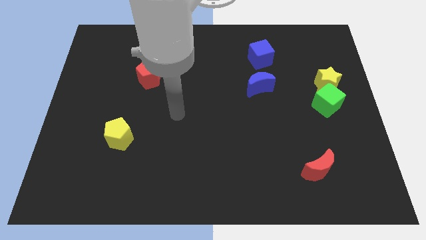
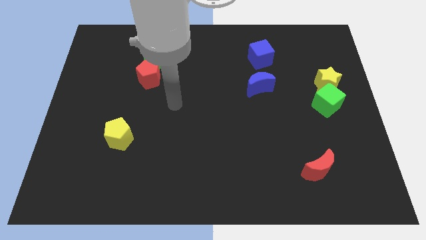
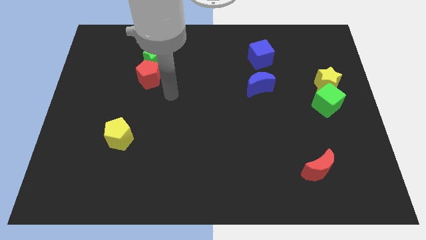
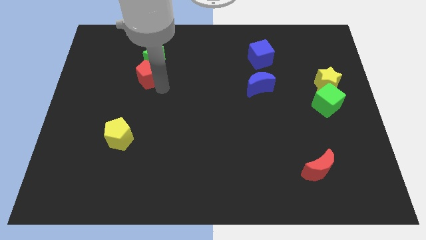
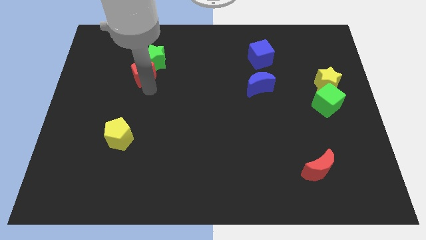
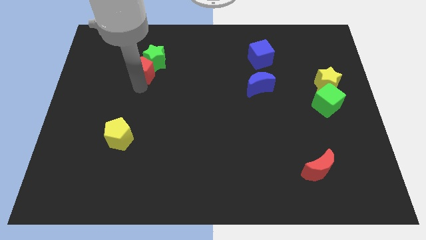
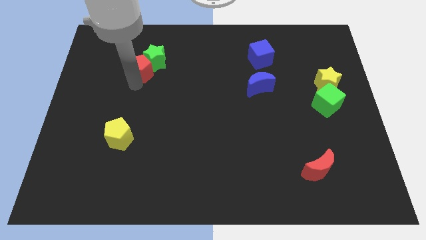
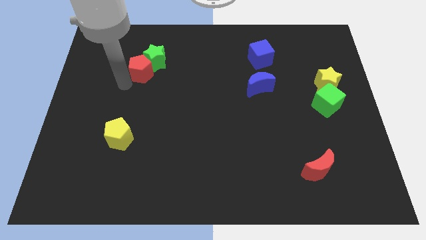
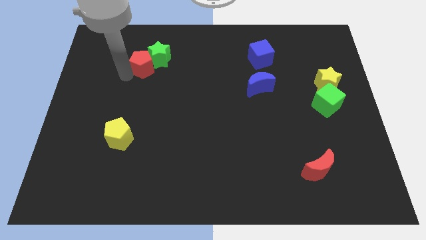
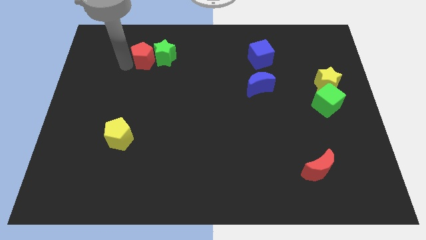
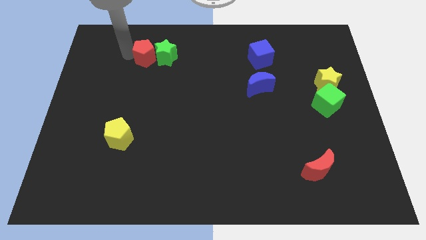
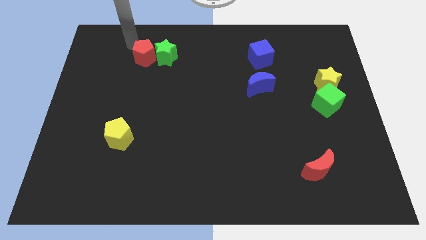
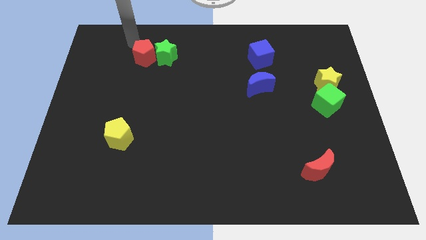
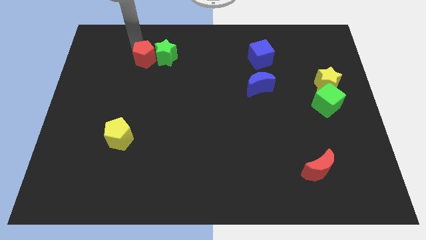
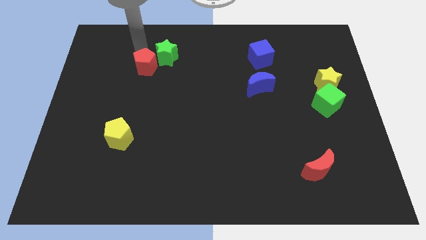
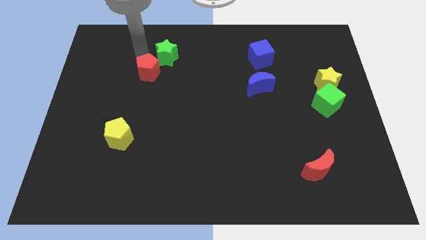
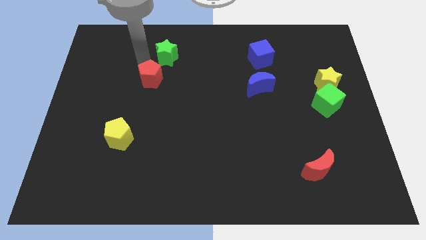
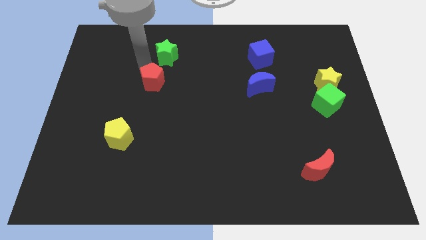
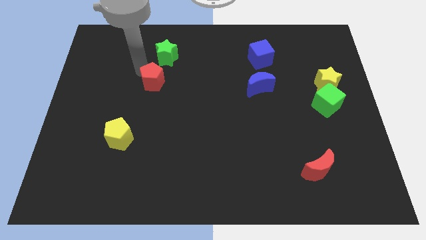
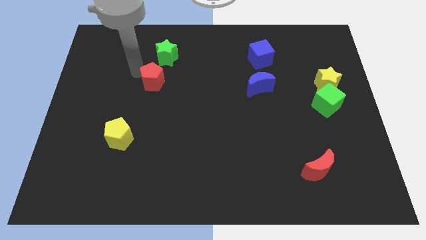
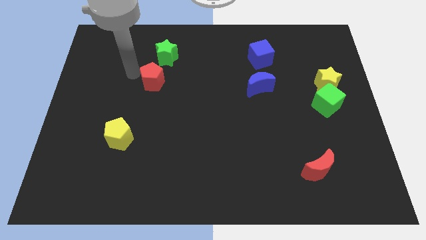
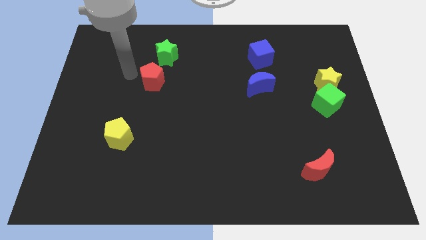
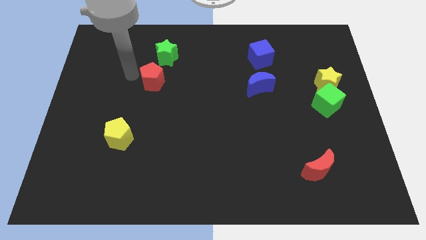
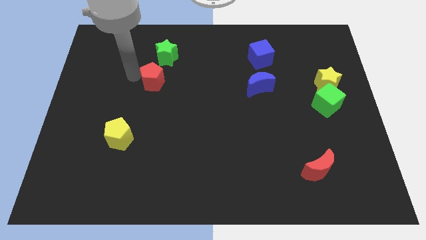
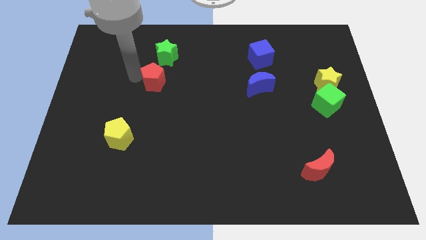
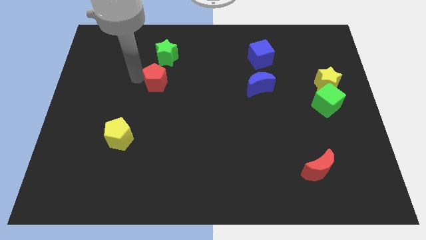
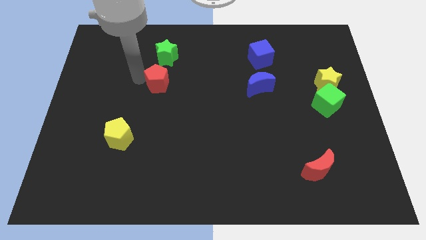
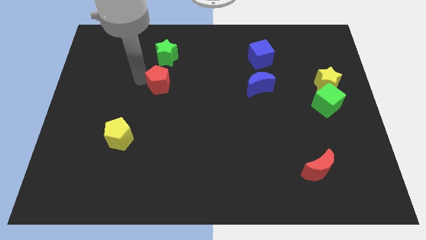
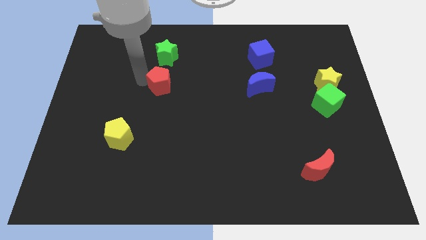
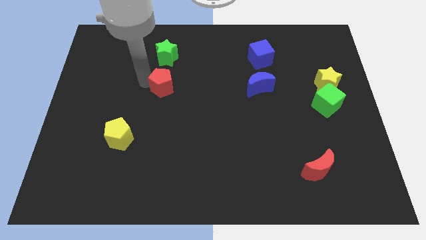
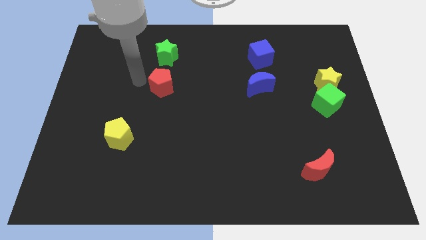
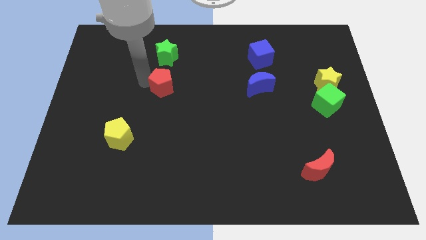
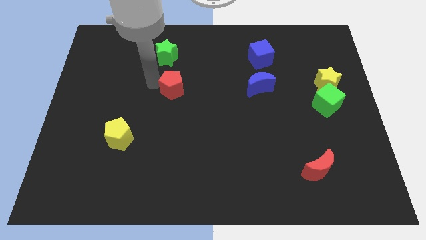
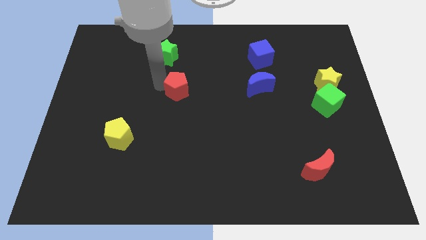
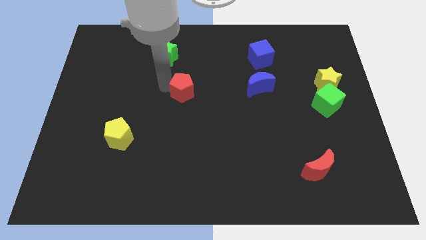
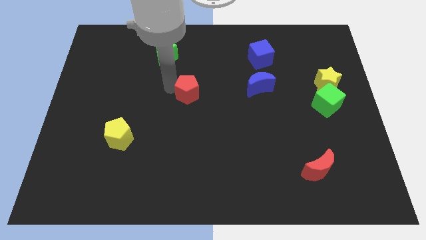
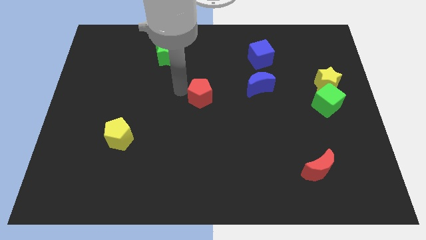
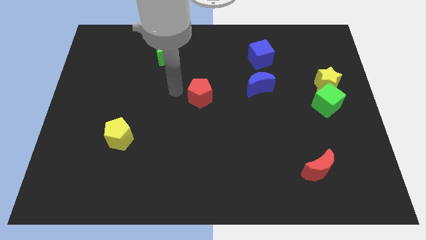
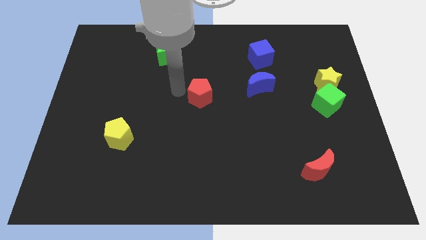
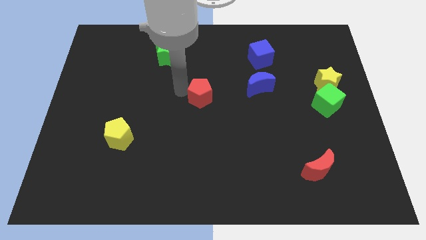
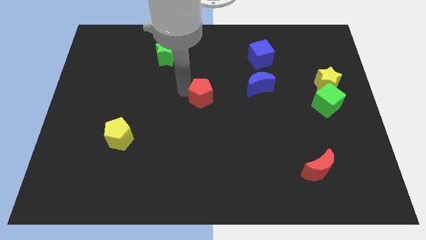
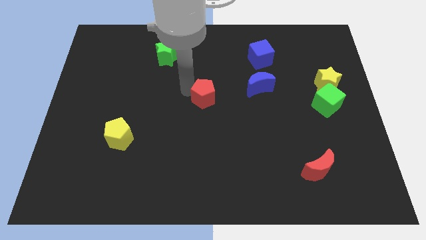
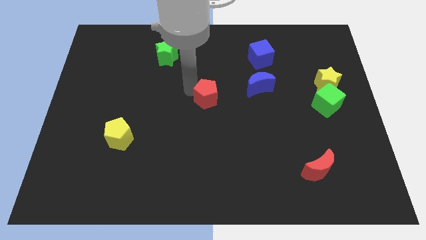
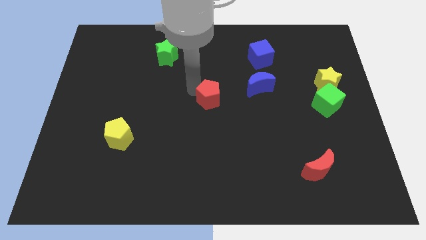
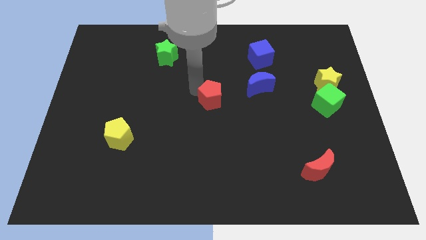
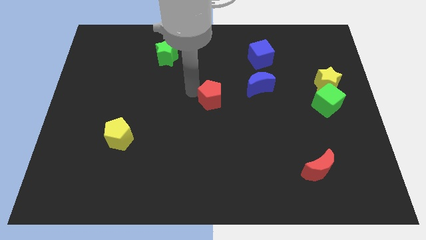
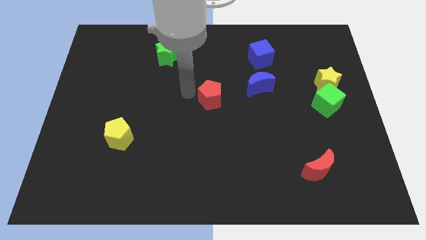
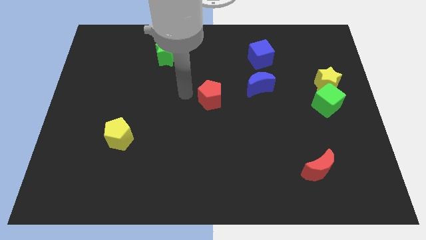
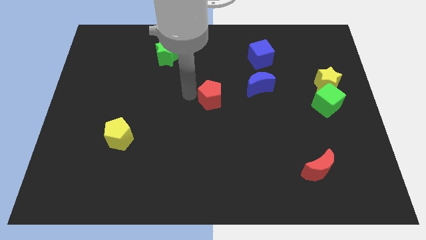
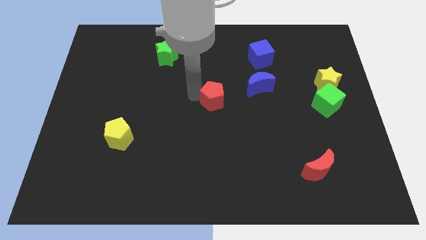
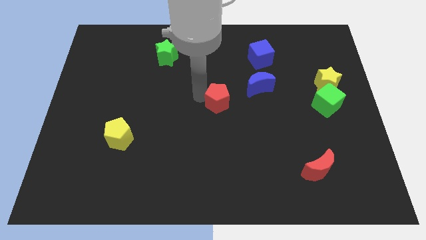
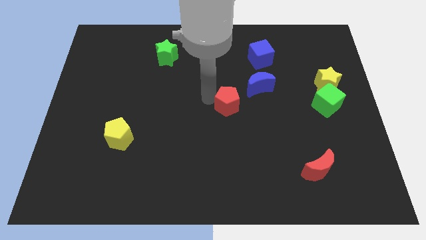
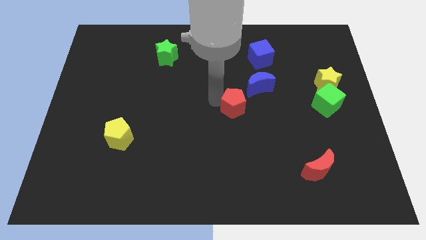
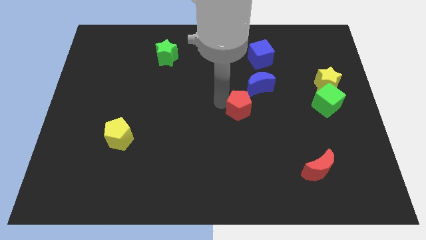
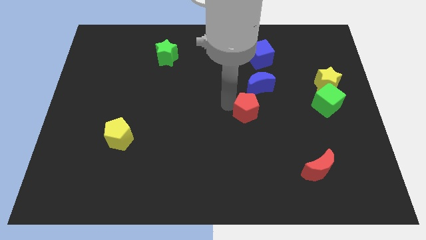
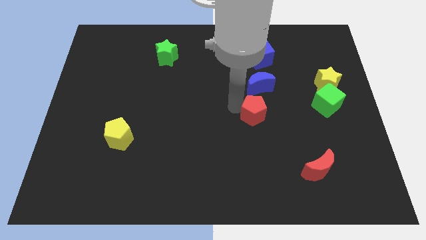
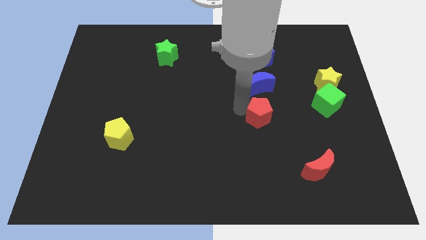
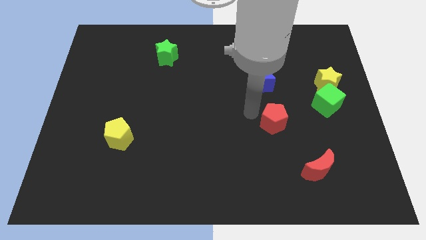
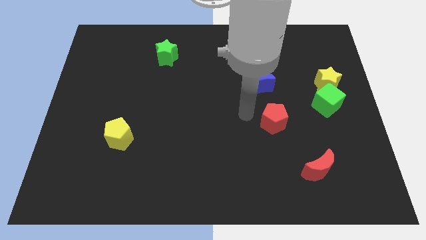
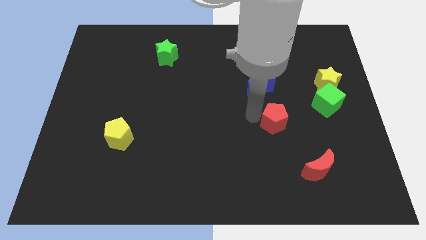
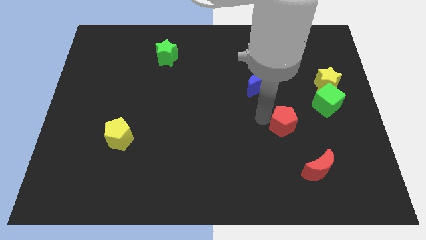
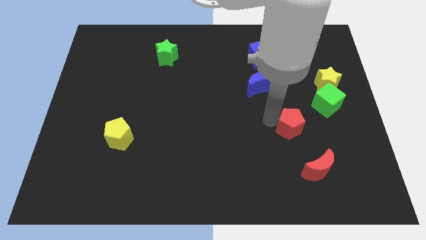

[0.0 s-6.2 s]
slide the red pentagon to the top side of the red moon

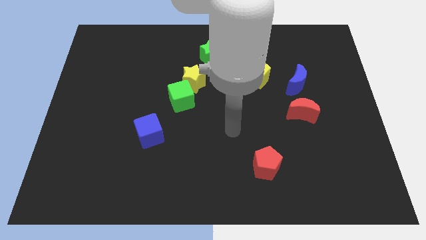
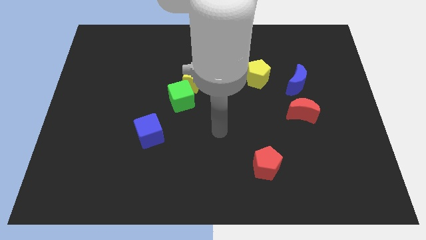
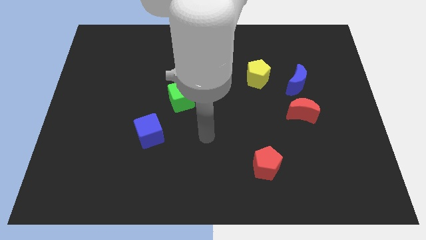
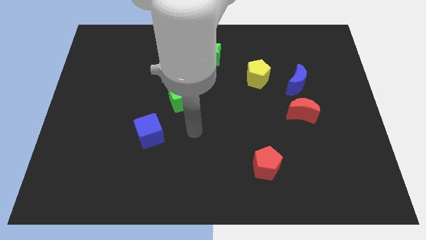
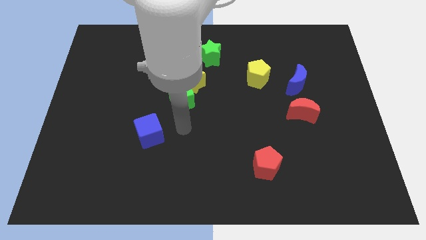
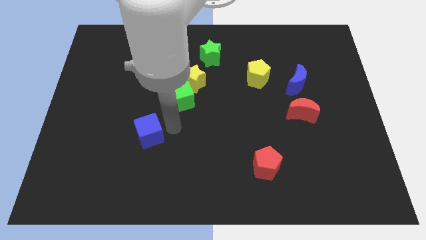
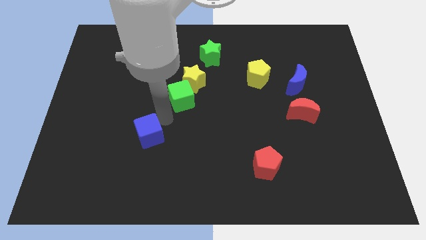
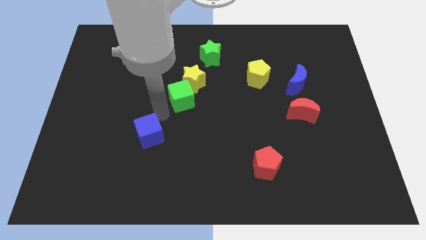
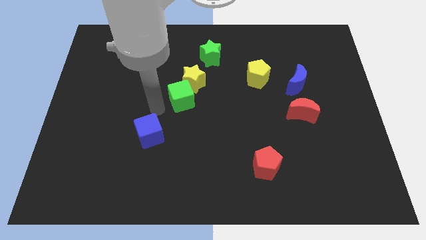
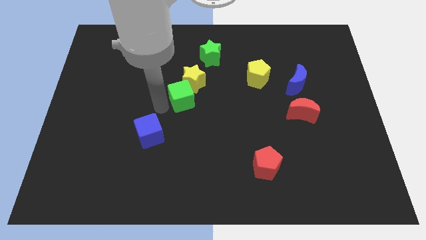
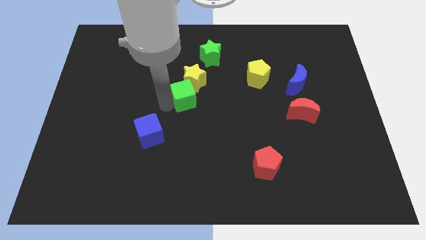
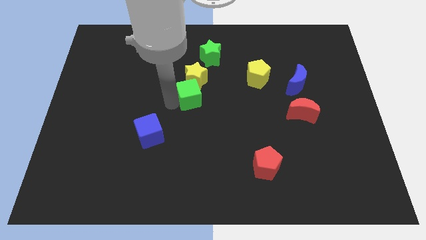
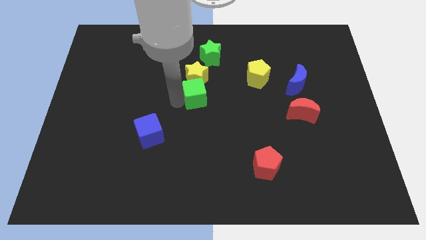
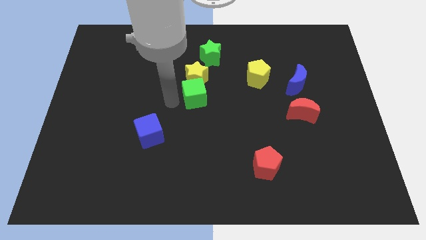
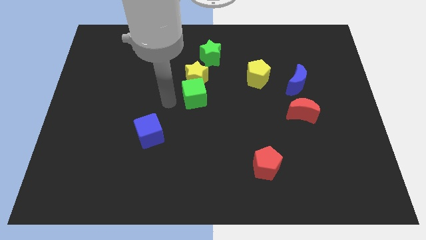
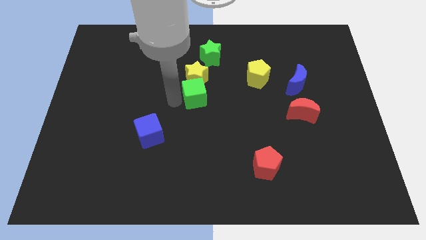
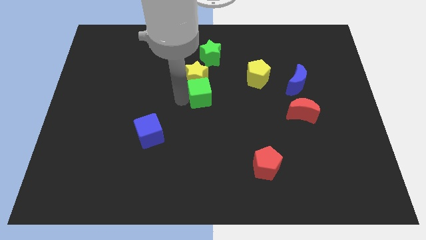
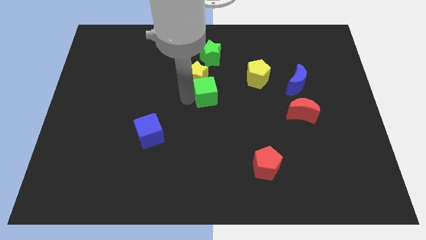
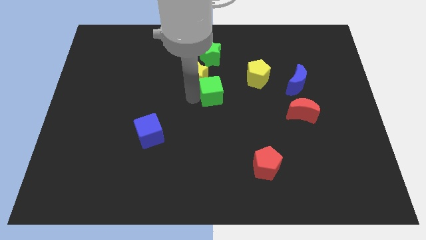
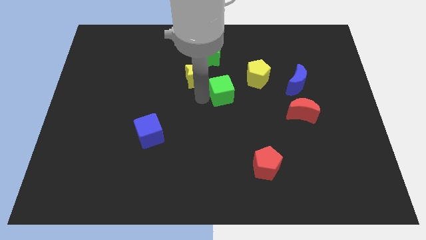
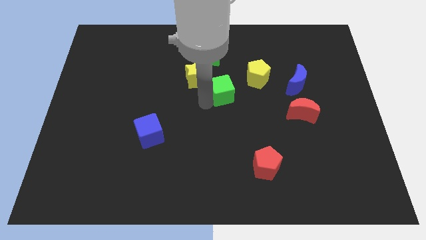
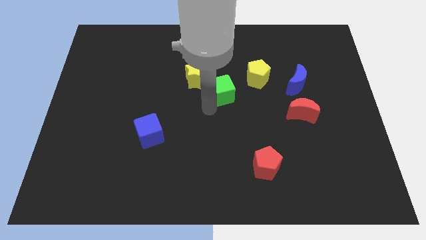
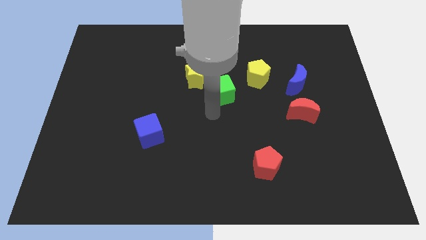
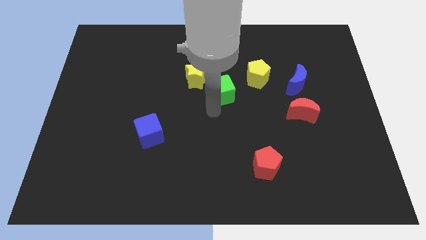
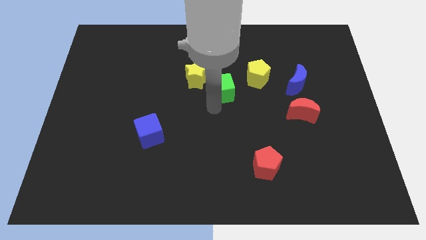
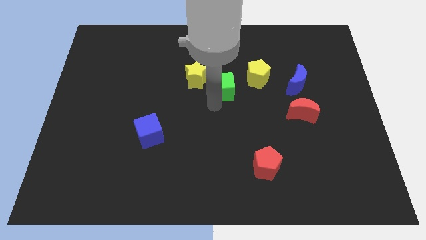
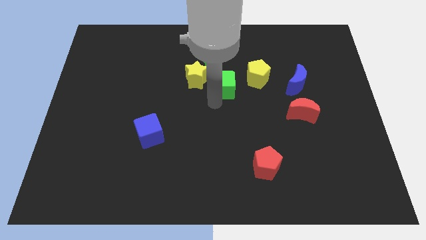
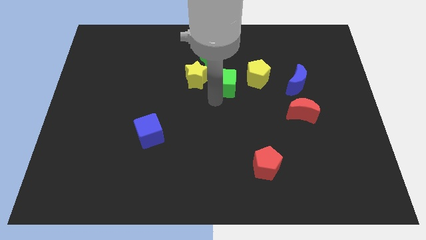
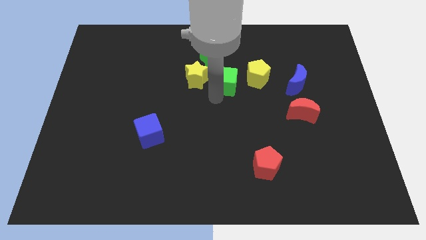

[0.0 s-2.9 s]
push the green cube to the bottom right of the green star
